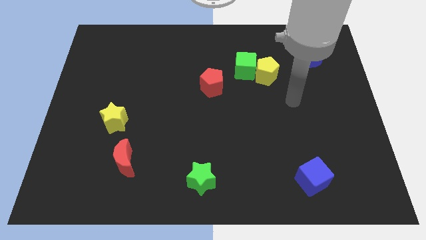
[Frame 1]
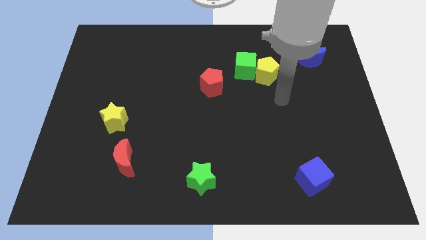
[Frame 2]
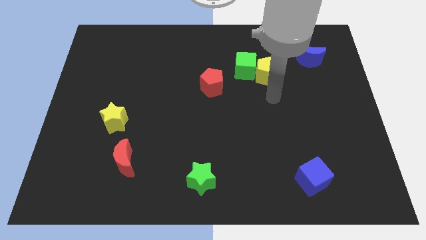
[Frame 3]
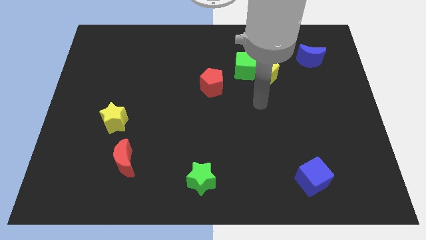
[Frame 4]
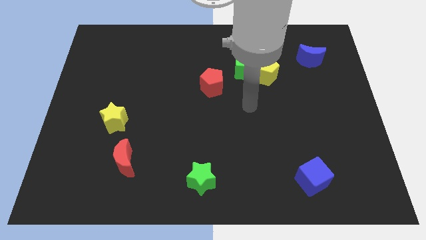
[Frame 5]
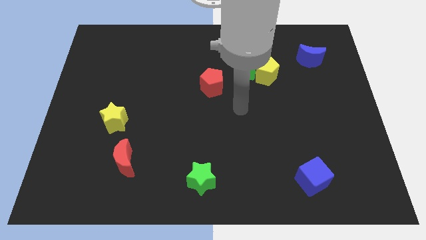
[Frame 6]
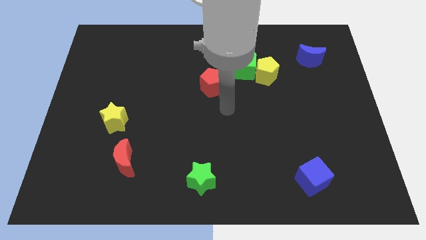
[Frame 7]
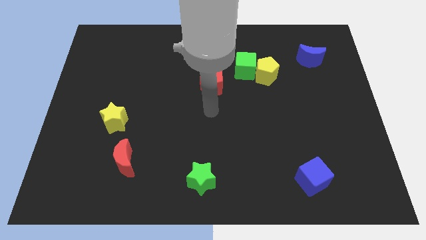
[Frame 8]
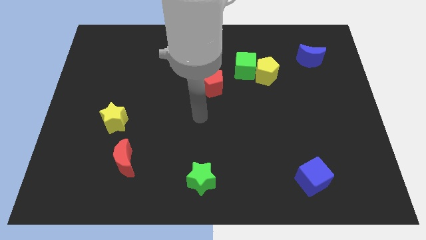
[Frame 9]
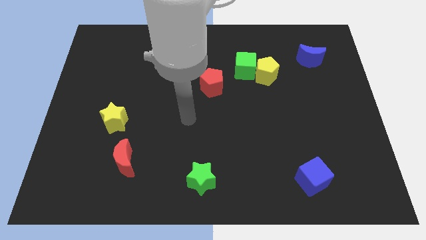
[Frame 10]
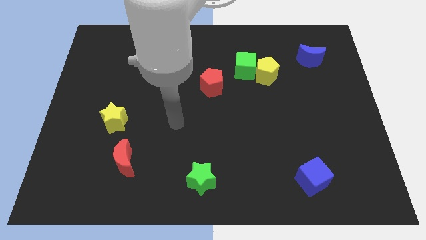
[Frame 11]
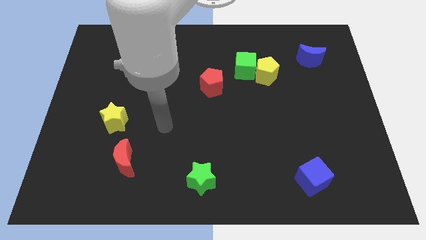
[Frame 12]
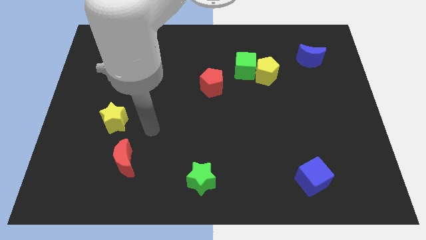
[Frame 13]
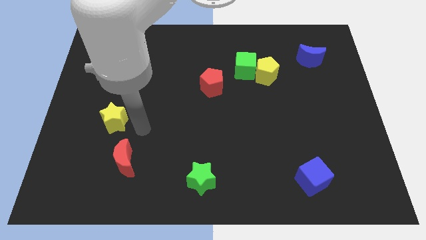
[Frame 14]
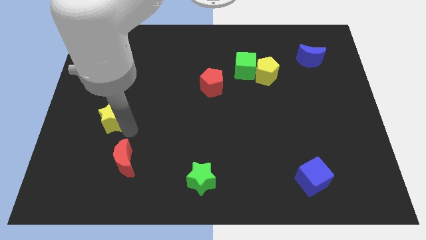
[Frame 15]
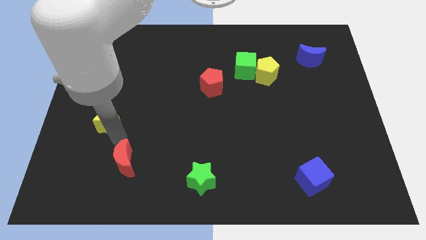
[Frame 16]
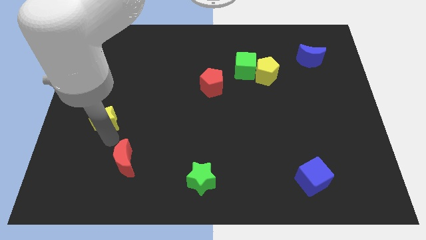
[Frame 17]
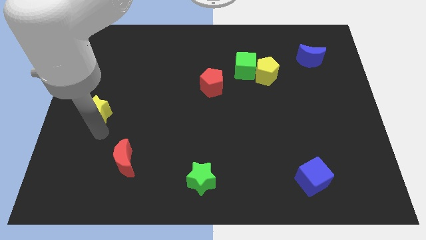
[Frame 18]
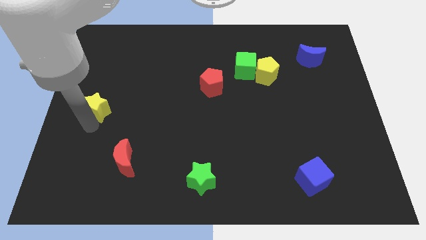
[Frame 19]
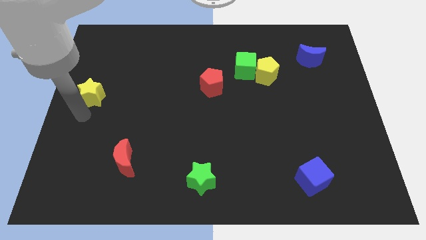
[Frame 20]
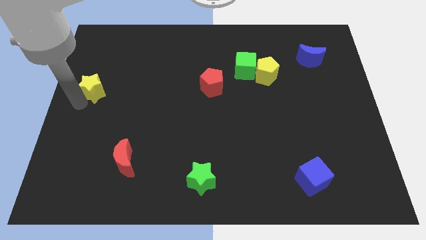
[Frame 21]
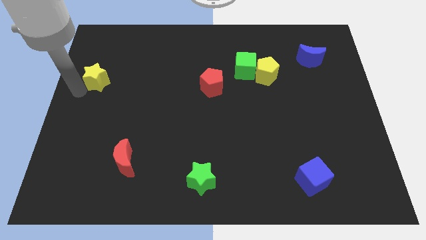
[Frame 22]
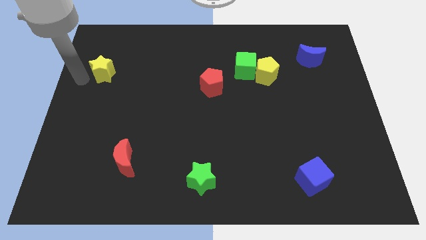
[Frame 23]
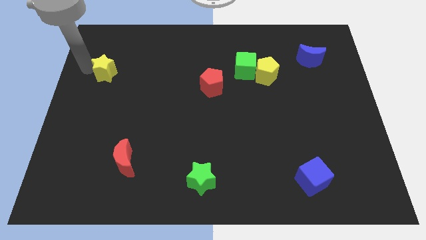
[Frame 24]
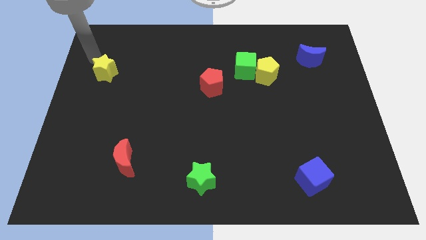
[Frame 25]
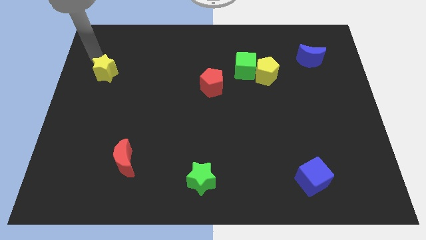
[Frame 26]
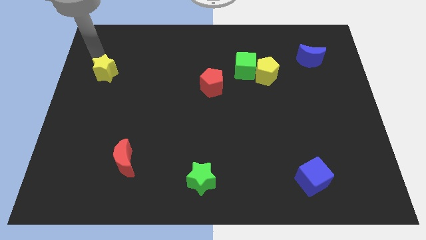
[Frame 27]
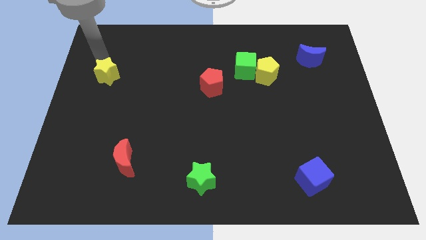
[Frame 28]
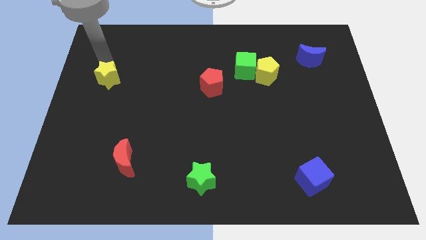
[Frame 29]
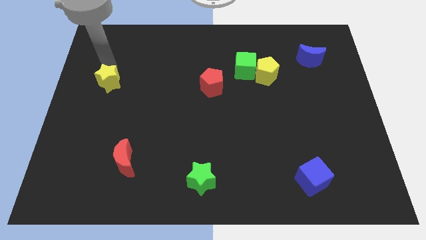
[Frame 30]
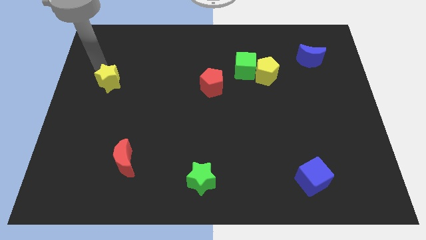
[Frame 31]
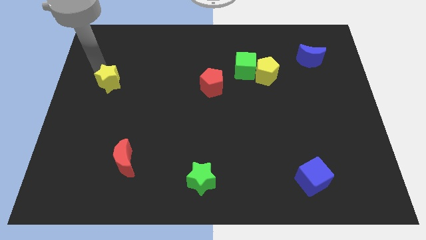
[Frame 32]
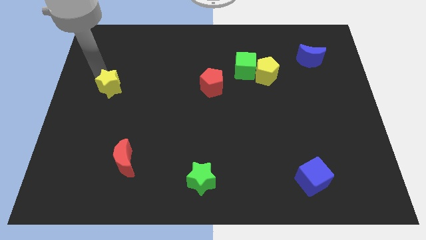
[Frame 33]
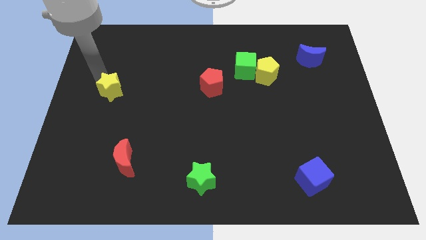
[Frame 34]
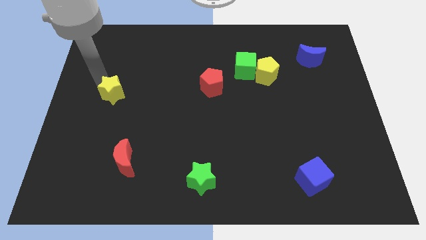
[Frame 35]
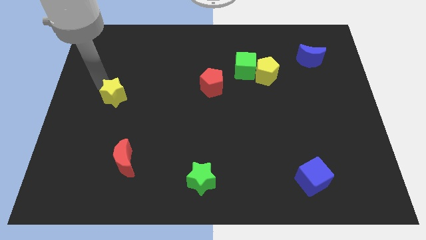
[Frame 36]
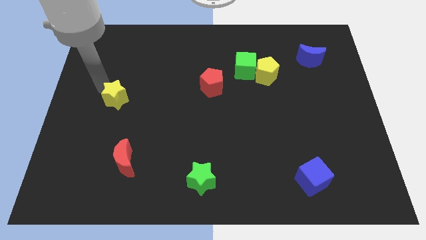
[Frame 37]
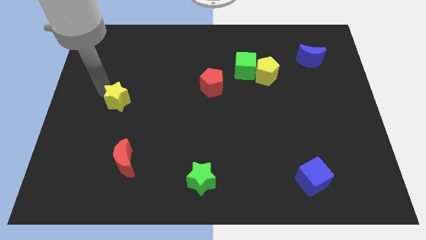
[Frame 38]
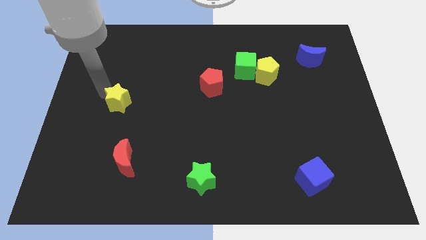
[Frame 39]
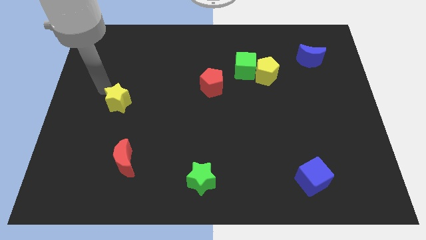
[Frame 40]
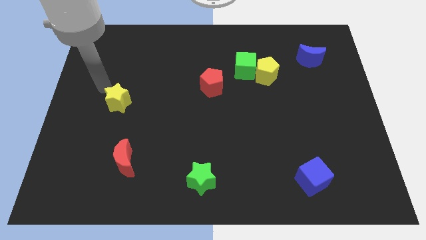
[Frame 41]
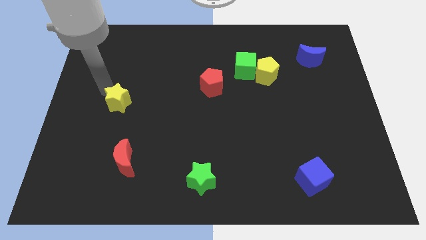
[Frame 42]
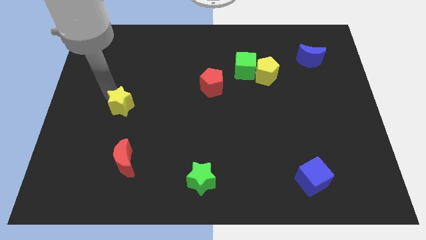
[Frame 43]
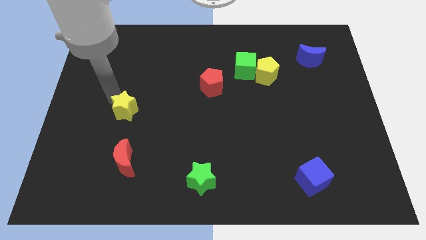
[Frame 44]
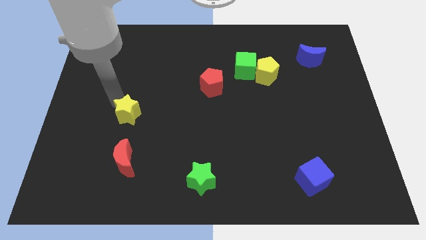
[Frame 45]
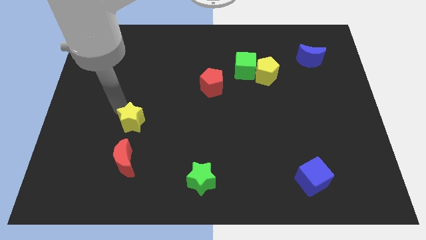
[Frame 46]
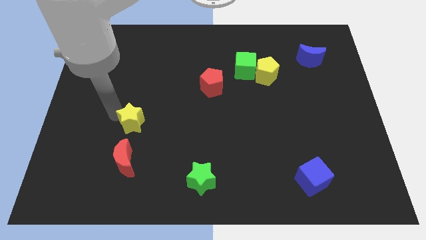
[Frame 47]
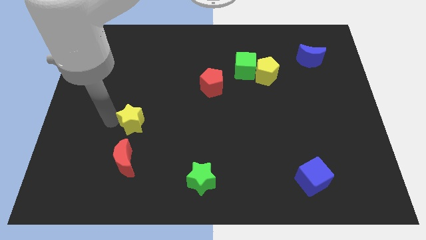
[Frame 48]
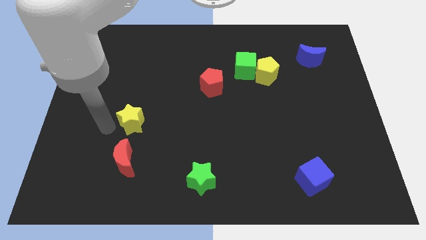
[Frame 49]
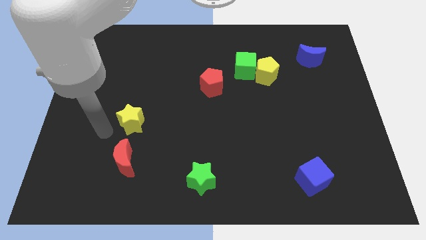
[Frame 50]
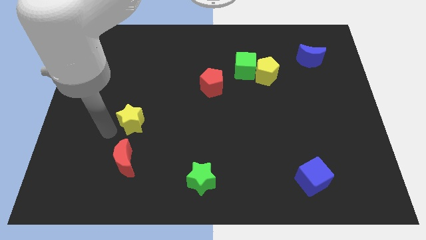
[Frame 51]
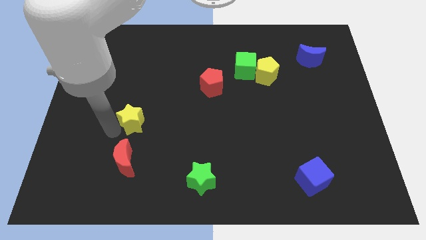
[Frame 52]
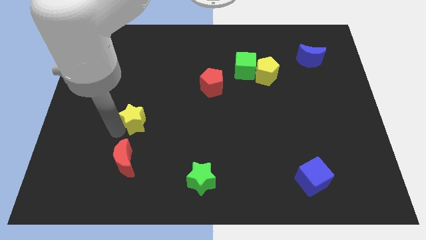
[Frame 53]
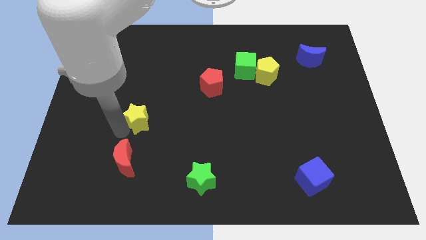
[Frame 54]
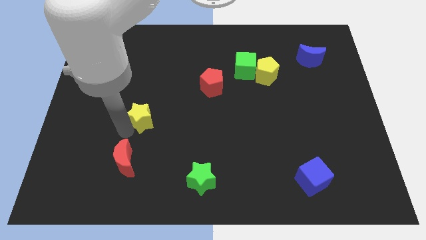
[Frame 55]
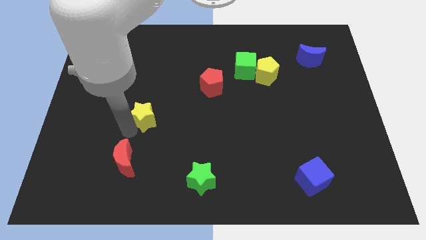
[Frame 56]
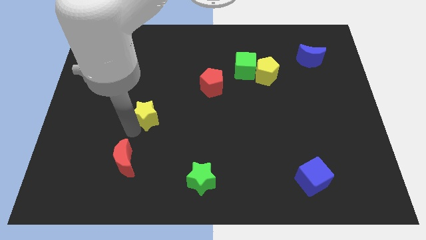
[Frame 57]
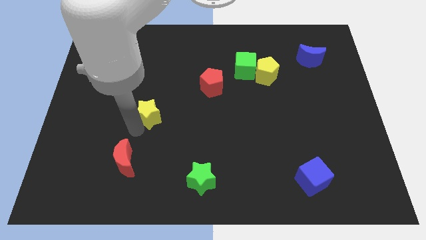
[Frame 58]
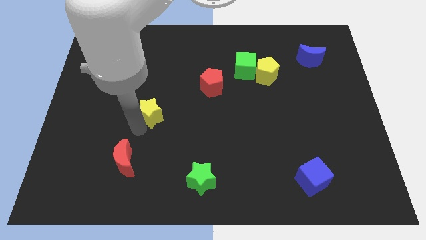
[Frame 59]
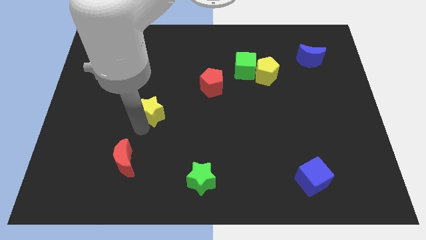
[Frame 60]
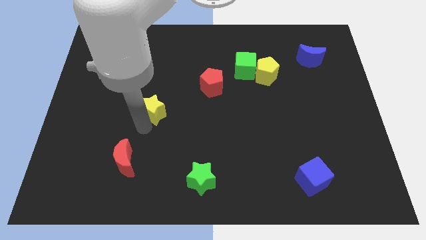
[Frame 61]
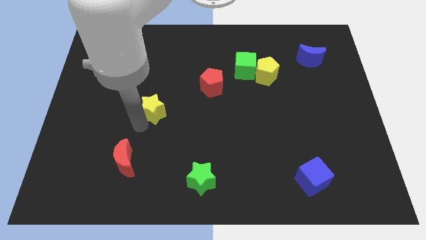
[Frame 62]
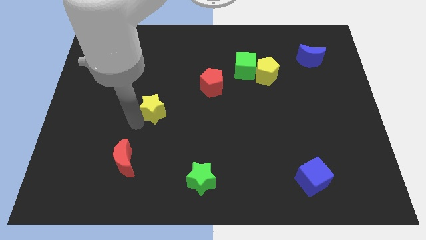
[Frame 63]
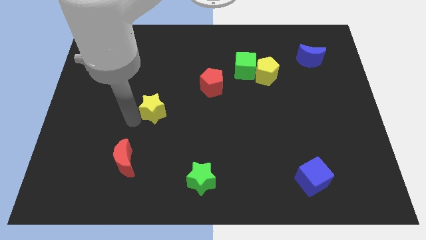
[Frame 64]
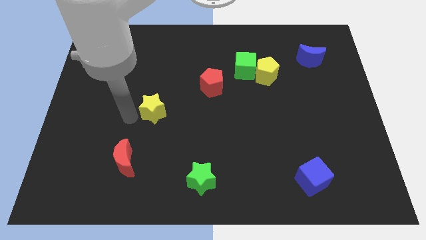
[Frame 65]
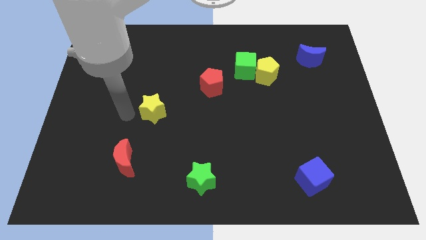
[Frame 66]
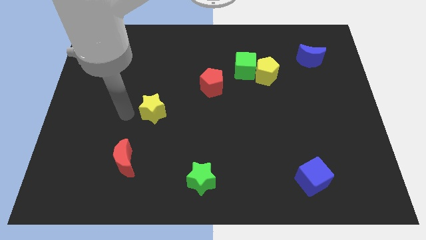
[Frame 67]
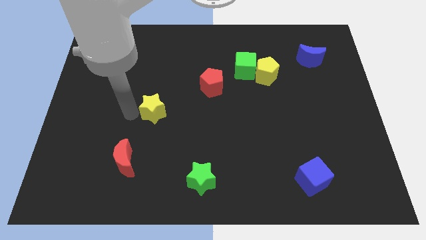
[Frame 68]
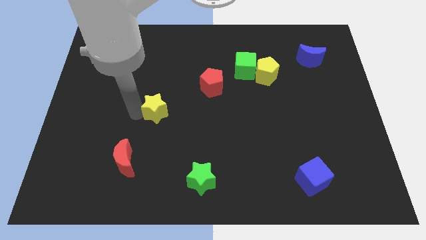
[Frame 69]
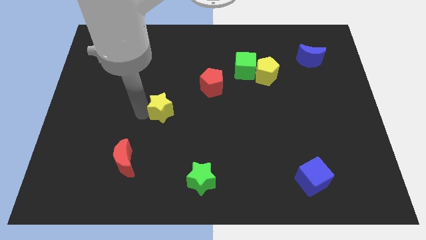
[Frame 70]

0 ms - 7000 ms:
put the yellow star to the middle of the board
